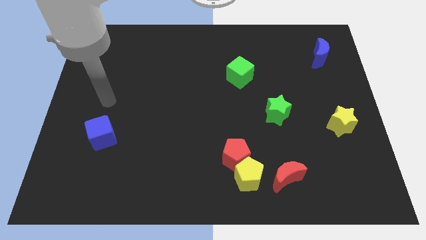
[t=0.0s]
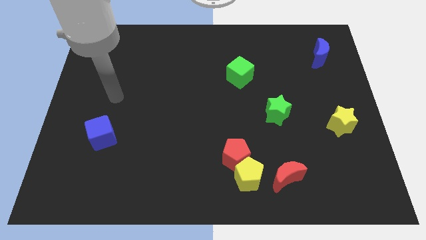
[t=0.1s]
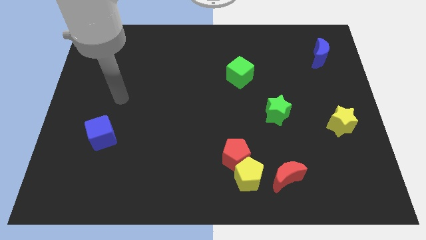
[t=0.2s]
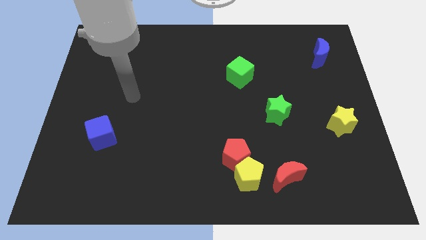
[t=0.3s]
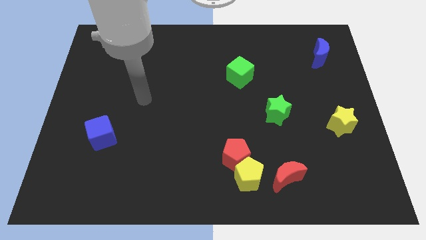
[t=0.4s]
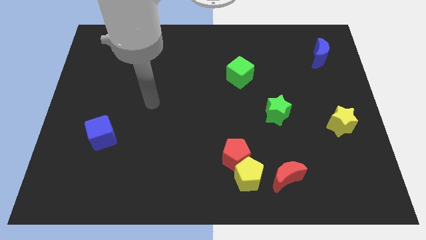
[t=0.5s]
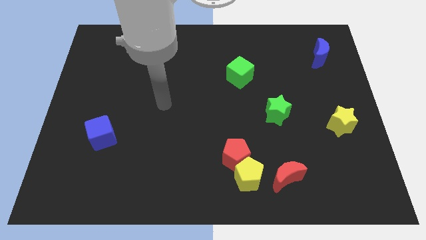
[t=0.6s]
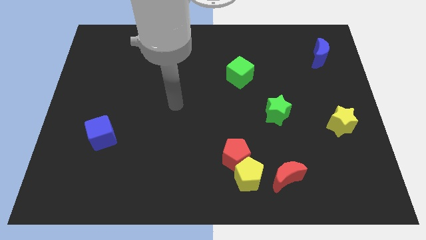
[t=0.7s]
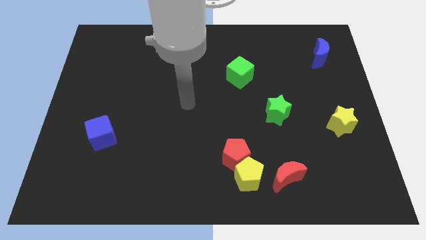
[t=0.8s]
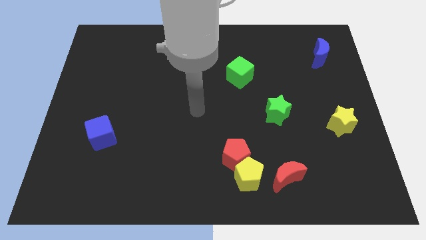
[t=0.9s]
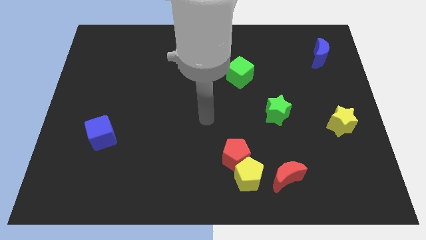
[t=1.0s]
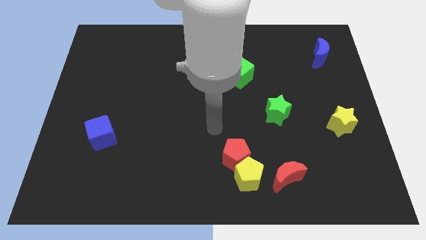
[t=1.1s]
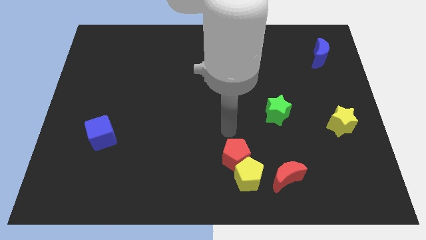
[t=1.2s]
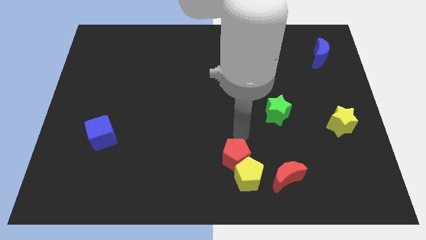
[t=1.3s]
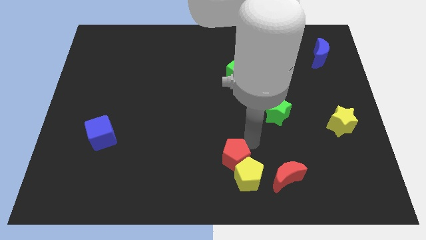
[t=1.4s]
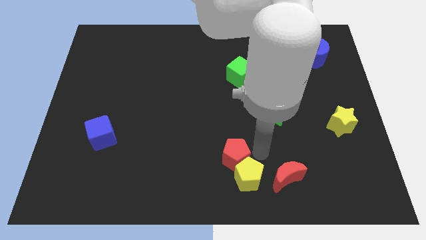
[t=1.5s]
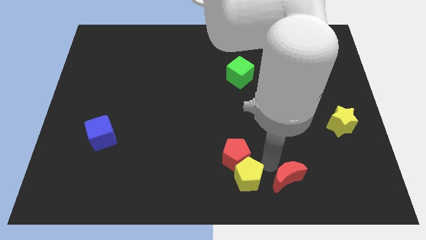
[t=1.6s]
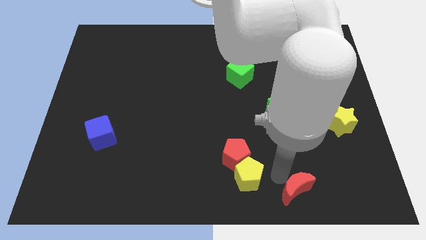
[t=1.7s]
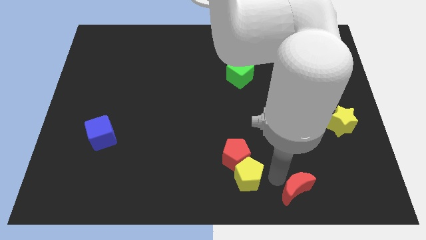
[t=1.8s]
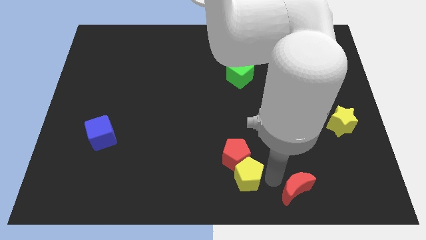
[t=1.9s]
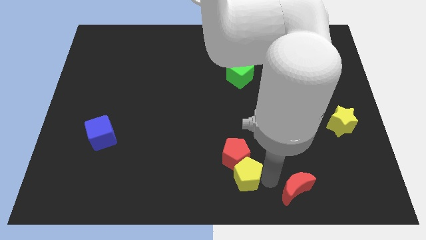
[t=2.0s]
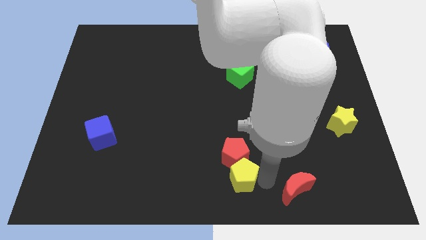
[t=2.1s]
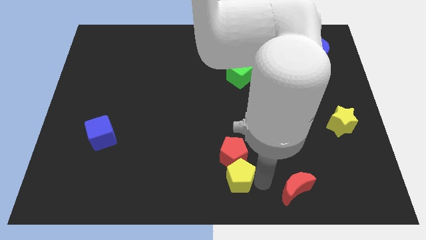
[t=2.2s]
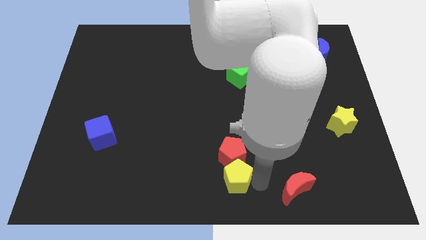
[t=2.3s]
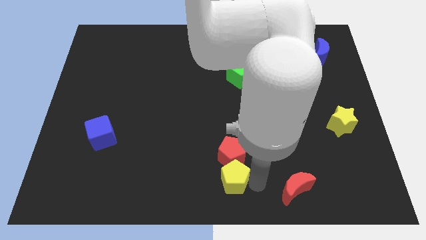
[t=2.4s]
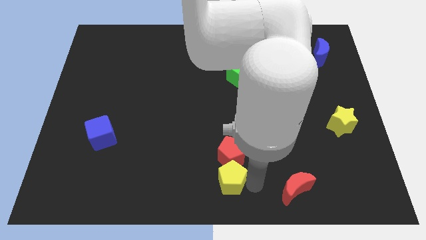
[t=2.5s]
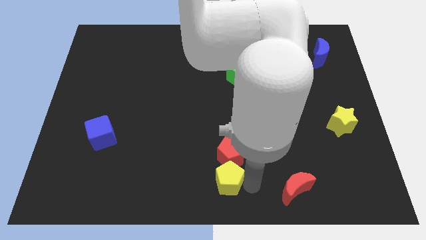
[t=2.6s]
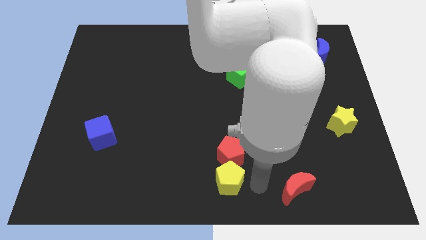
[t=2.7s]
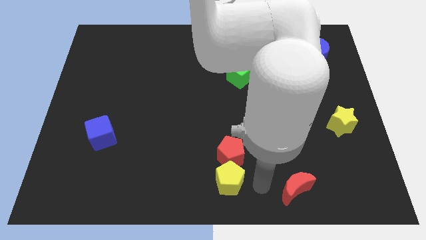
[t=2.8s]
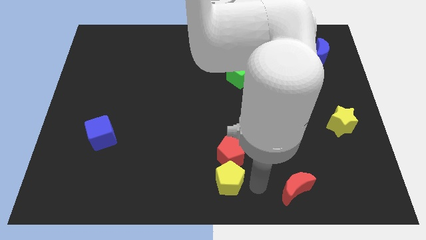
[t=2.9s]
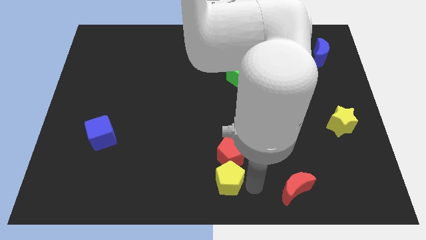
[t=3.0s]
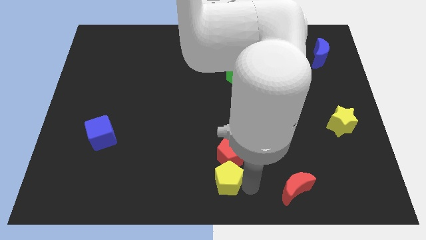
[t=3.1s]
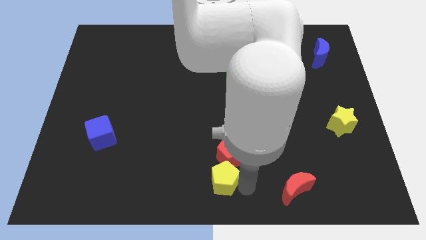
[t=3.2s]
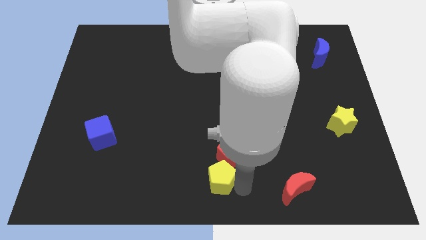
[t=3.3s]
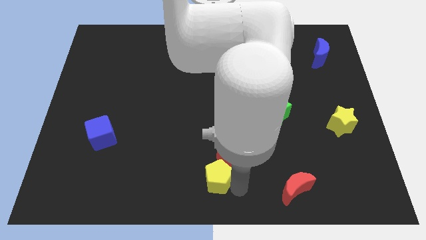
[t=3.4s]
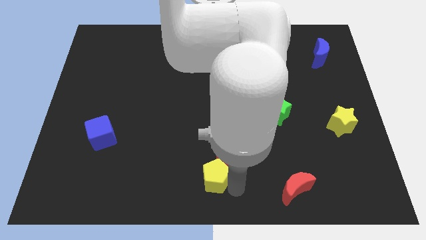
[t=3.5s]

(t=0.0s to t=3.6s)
slide the yellow pentagon a bit left

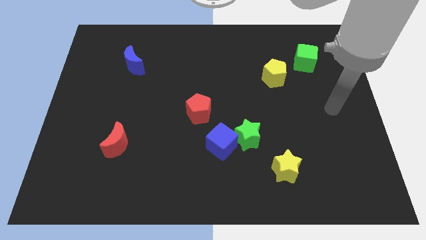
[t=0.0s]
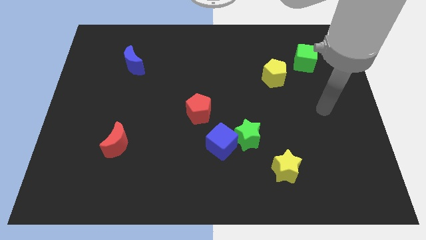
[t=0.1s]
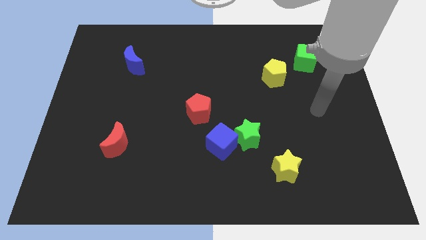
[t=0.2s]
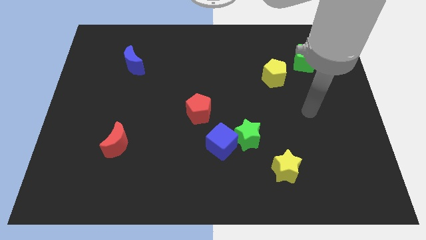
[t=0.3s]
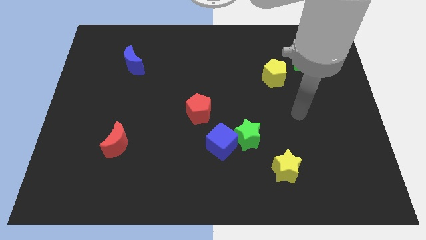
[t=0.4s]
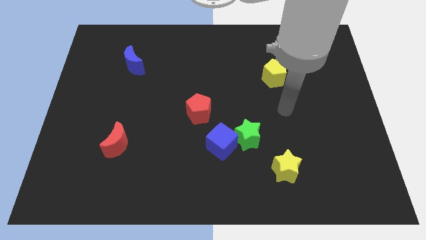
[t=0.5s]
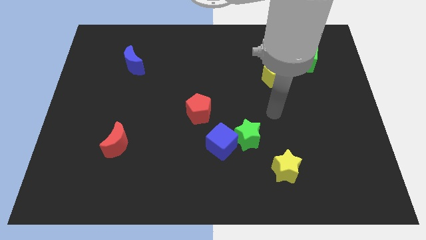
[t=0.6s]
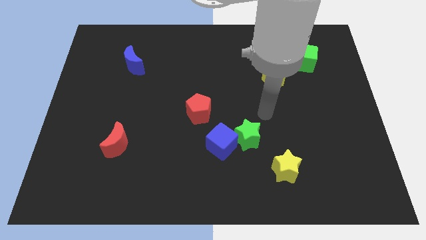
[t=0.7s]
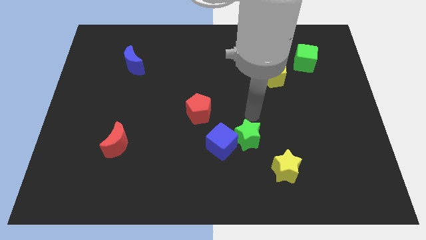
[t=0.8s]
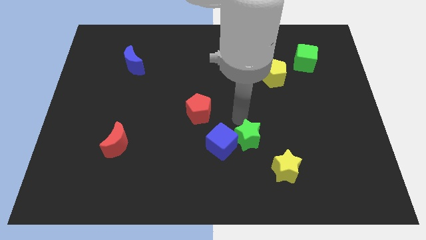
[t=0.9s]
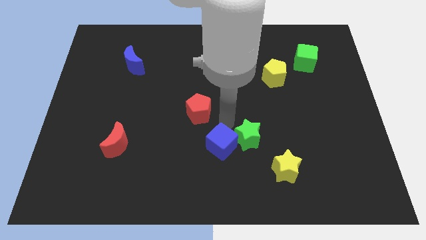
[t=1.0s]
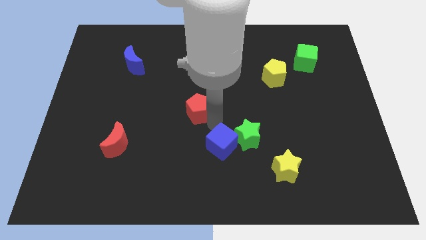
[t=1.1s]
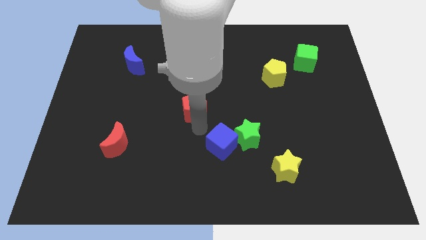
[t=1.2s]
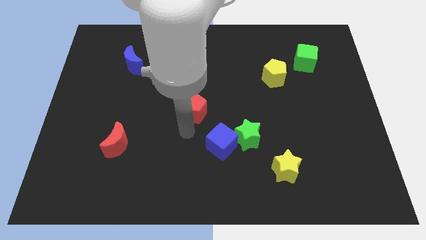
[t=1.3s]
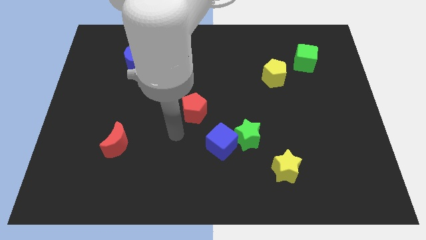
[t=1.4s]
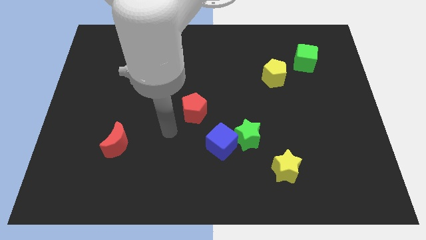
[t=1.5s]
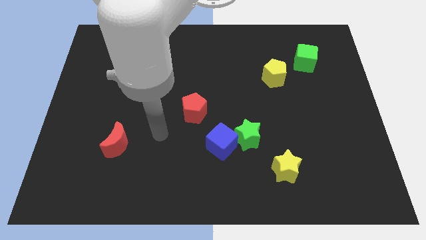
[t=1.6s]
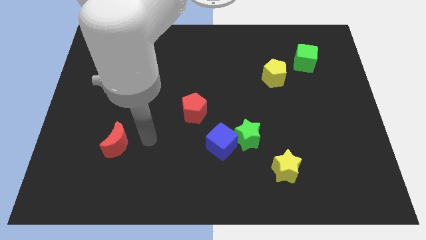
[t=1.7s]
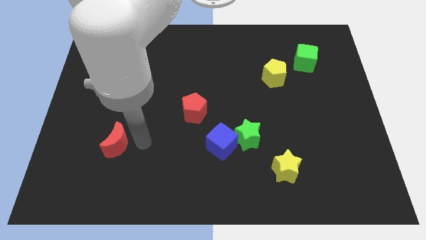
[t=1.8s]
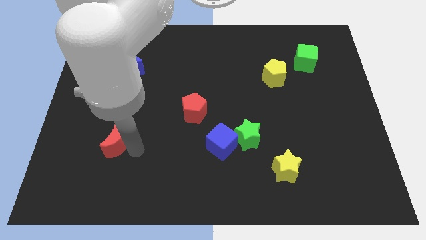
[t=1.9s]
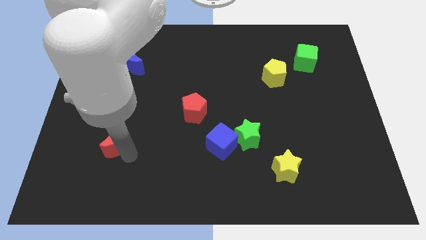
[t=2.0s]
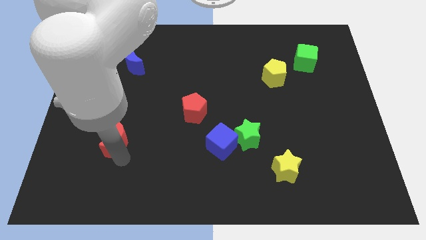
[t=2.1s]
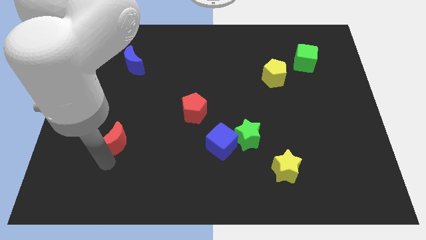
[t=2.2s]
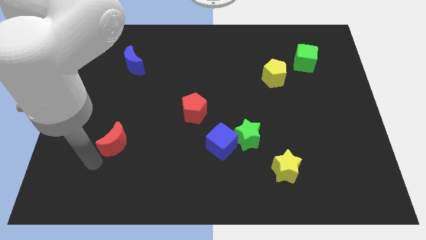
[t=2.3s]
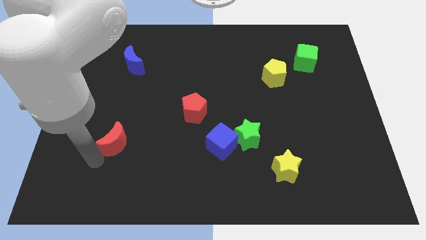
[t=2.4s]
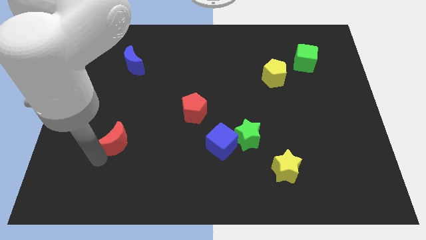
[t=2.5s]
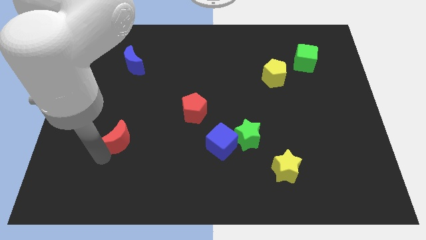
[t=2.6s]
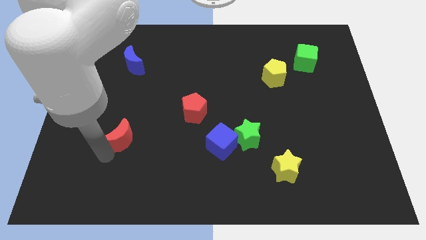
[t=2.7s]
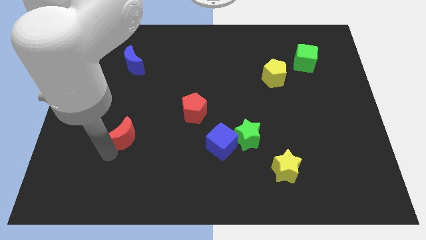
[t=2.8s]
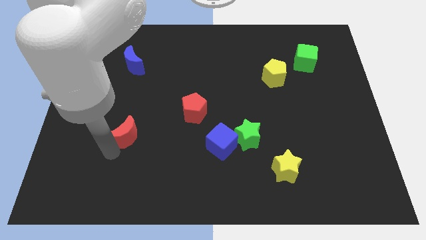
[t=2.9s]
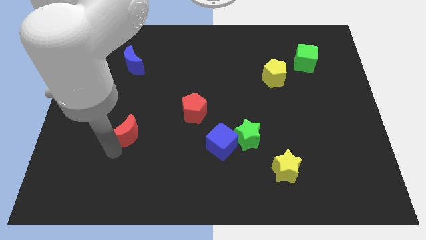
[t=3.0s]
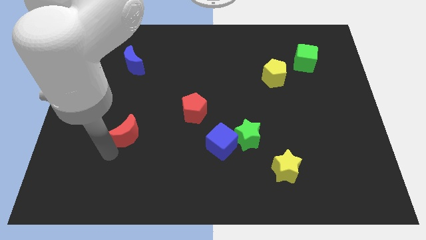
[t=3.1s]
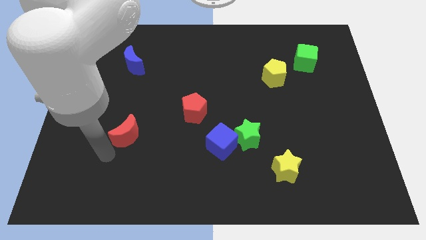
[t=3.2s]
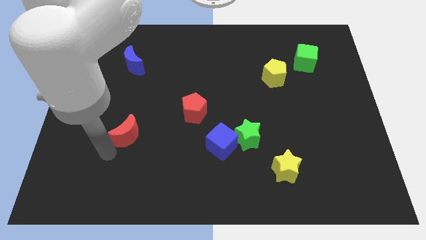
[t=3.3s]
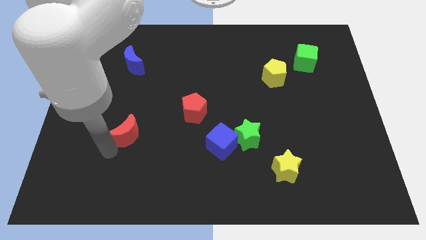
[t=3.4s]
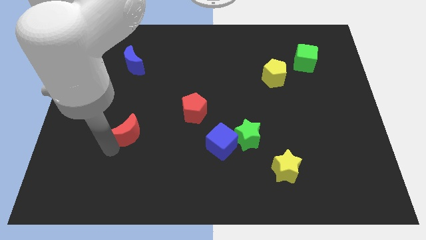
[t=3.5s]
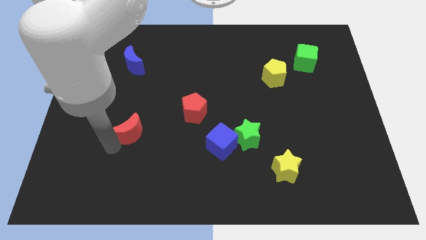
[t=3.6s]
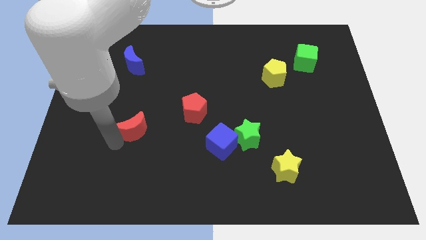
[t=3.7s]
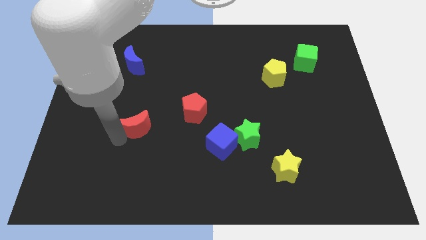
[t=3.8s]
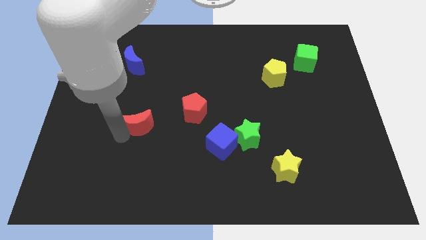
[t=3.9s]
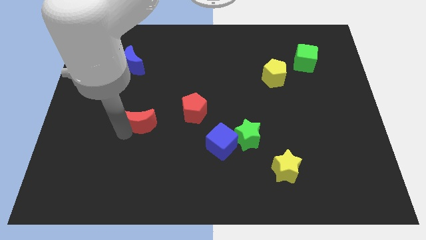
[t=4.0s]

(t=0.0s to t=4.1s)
push the red moon up and right diagonally a bit

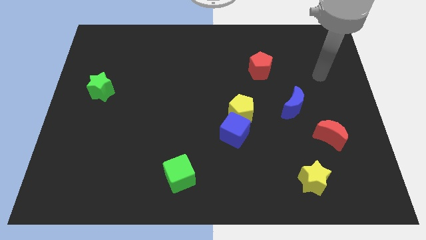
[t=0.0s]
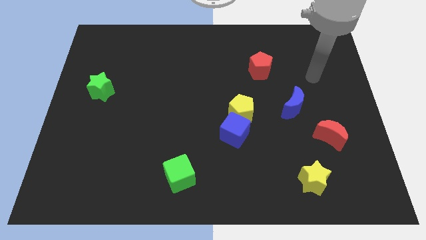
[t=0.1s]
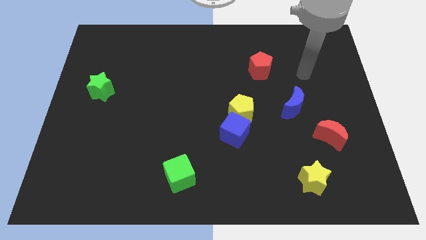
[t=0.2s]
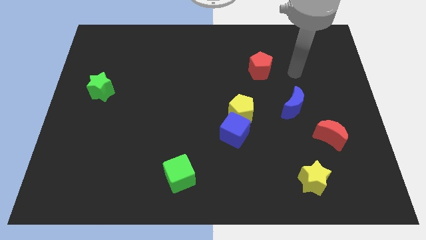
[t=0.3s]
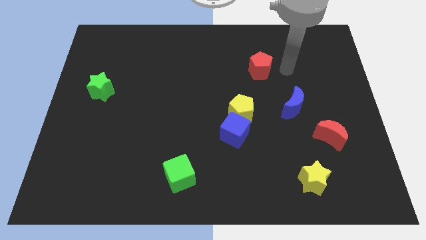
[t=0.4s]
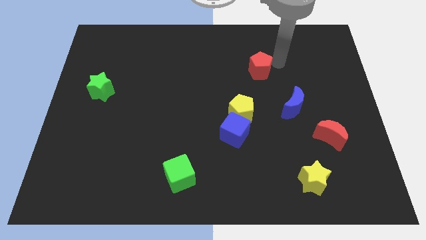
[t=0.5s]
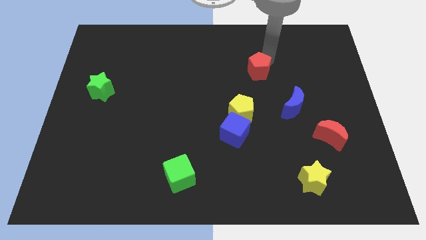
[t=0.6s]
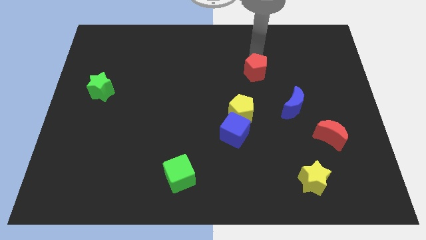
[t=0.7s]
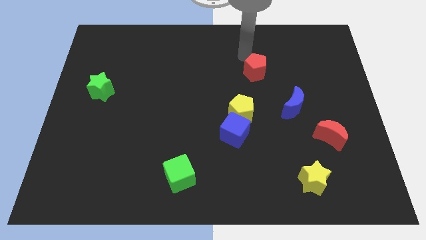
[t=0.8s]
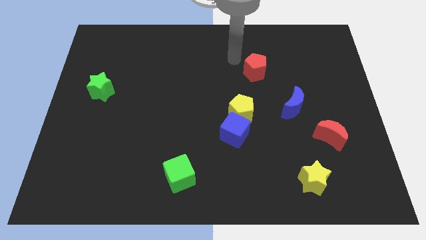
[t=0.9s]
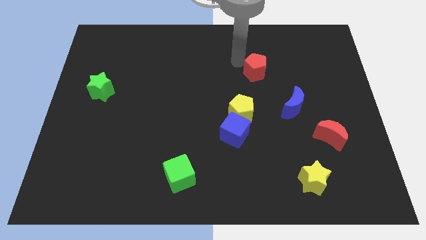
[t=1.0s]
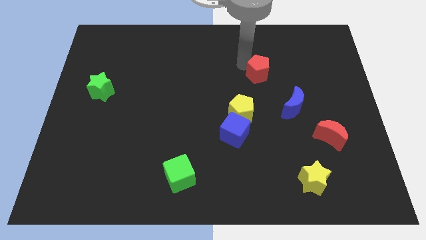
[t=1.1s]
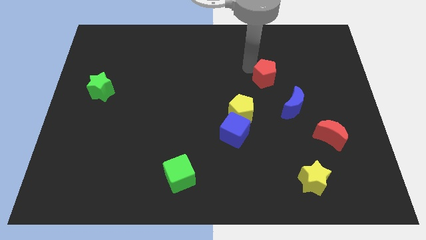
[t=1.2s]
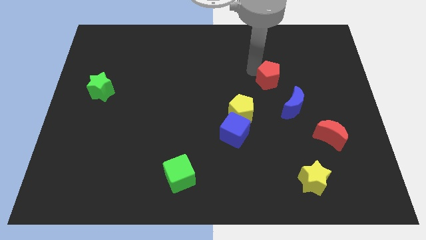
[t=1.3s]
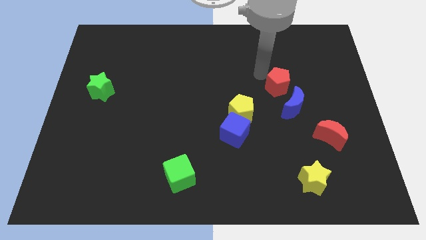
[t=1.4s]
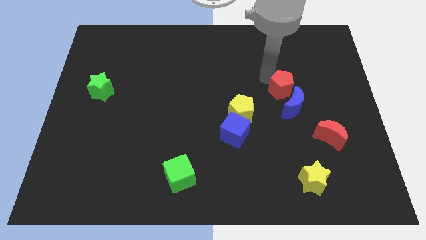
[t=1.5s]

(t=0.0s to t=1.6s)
push the red pentagon down and right diagonally a bit
